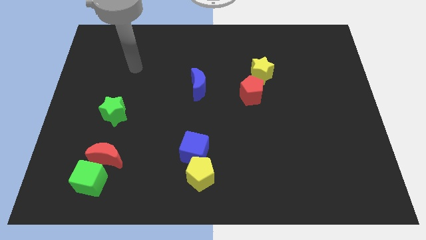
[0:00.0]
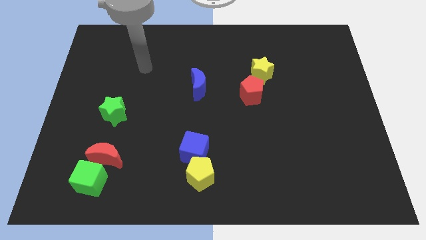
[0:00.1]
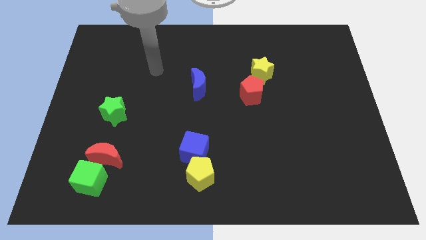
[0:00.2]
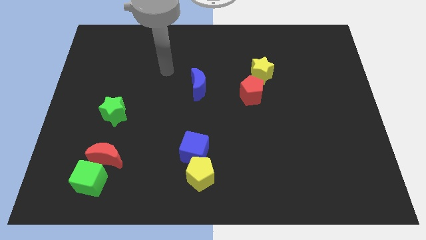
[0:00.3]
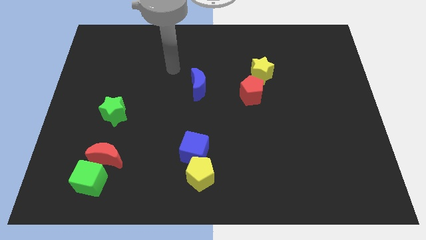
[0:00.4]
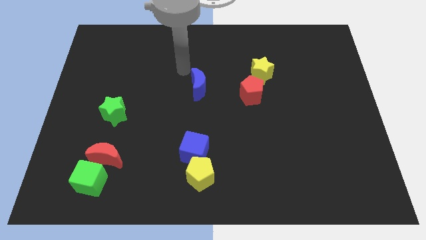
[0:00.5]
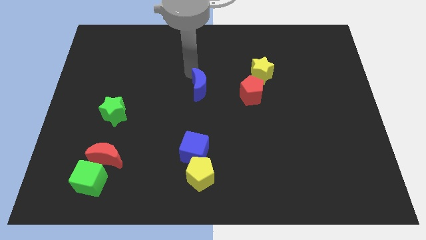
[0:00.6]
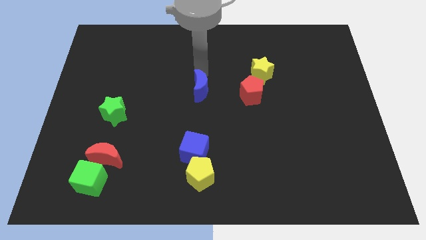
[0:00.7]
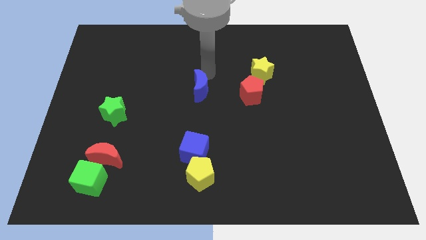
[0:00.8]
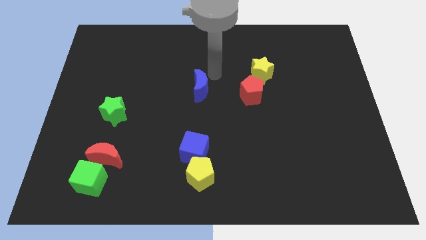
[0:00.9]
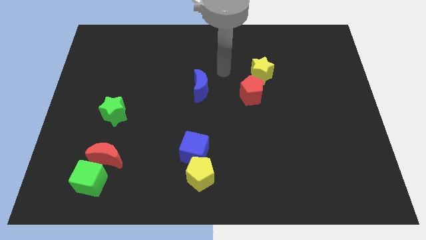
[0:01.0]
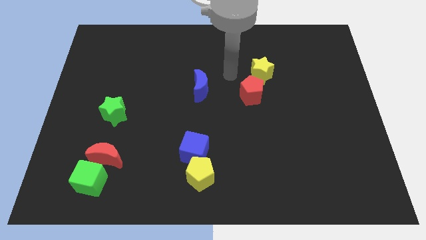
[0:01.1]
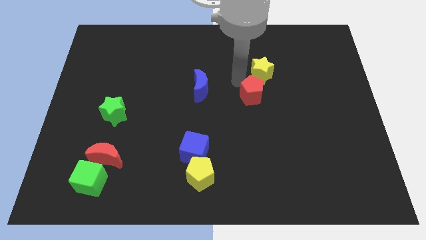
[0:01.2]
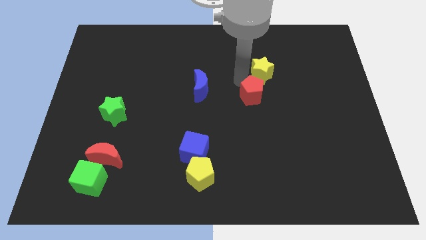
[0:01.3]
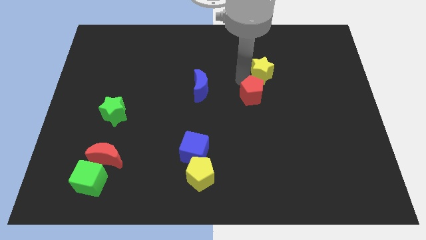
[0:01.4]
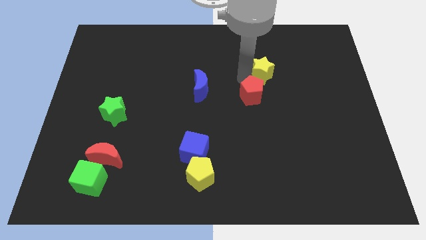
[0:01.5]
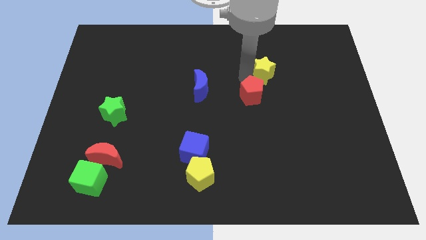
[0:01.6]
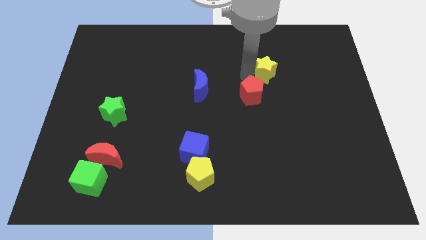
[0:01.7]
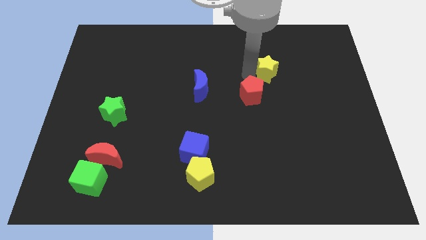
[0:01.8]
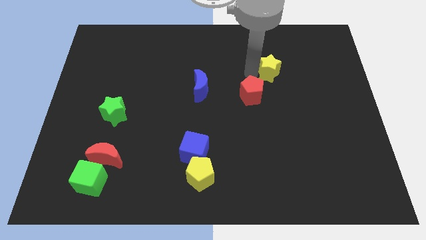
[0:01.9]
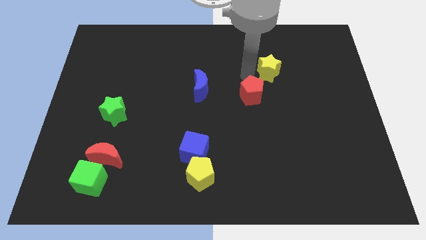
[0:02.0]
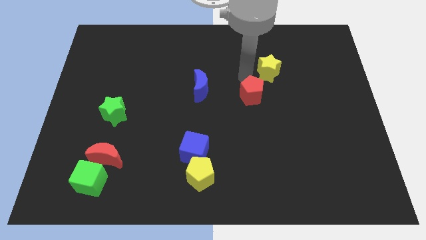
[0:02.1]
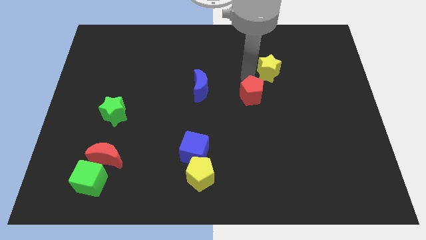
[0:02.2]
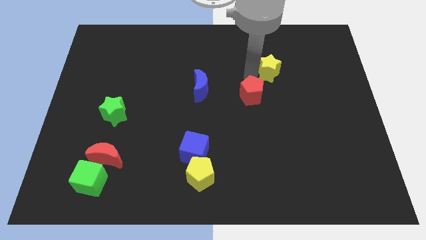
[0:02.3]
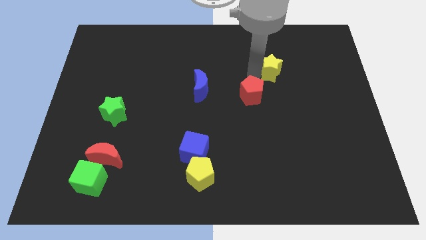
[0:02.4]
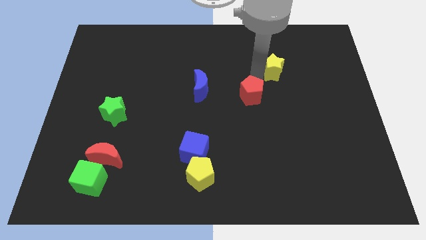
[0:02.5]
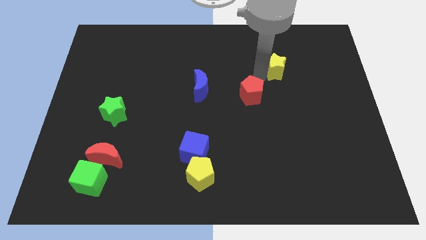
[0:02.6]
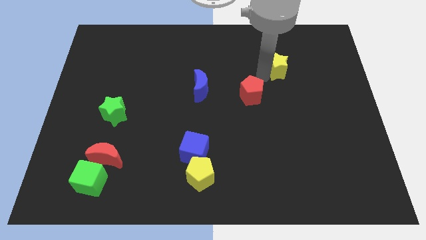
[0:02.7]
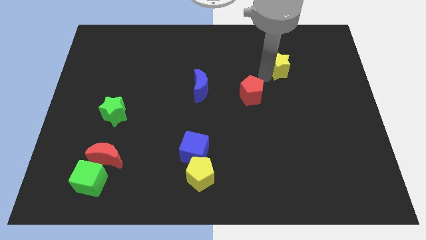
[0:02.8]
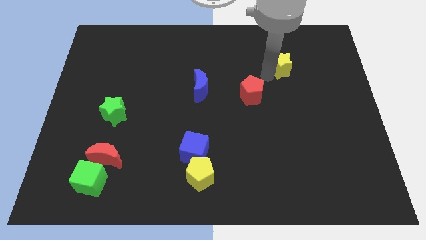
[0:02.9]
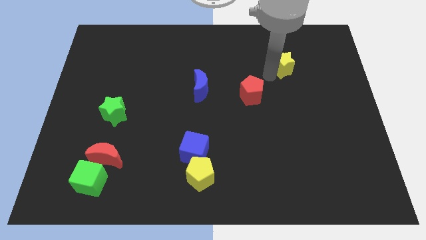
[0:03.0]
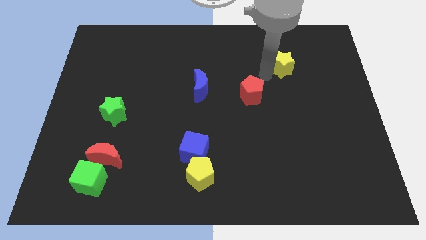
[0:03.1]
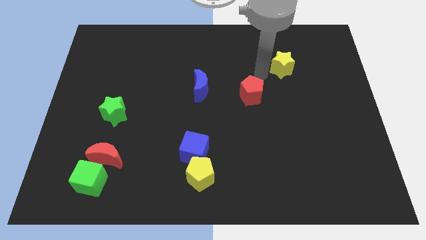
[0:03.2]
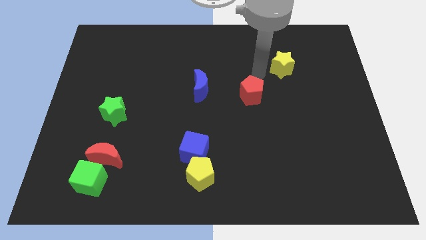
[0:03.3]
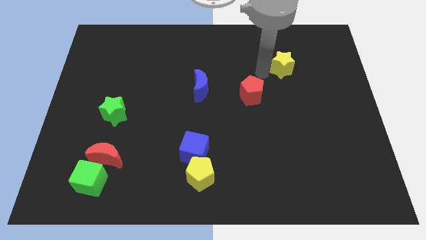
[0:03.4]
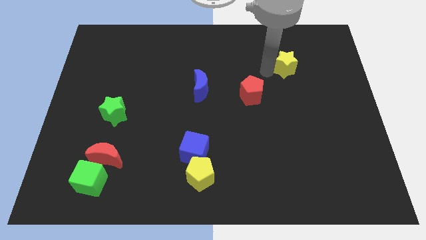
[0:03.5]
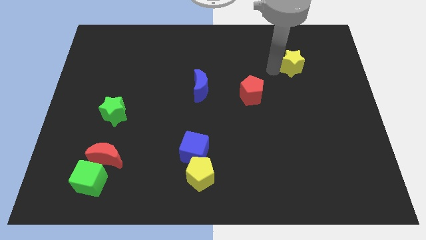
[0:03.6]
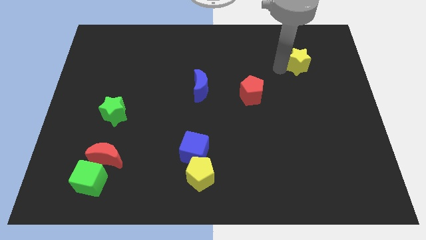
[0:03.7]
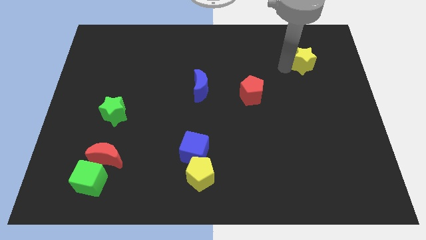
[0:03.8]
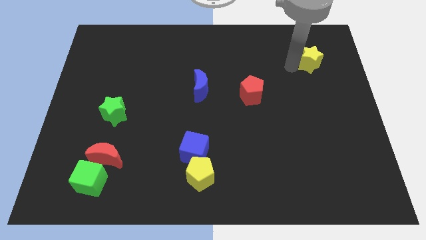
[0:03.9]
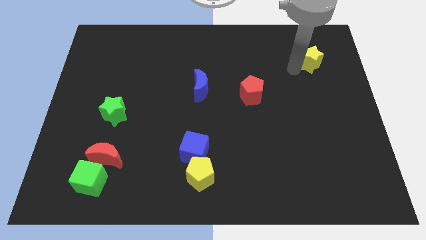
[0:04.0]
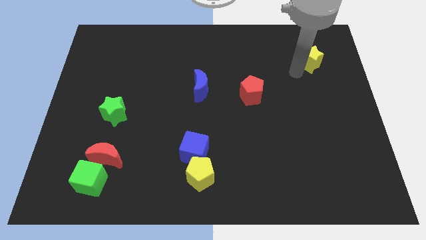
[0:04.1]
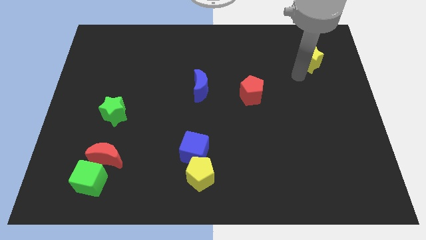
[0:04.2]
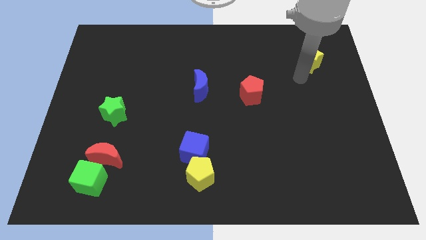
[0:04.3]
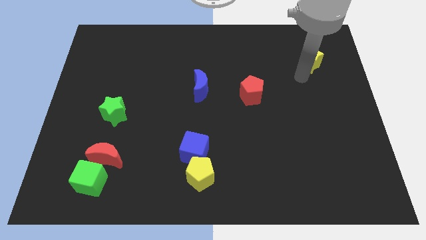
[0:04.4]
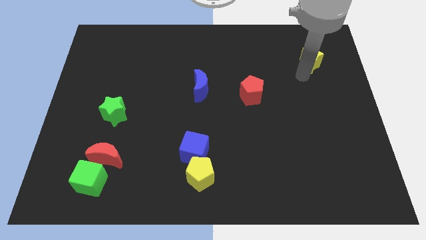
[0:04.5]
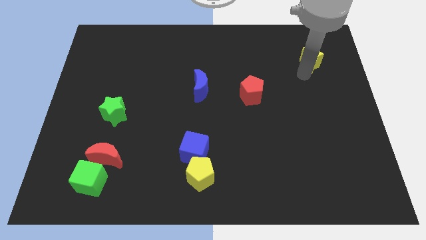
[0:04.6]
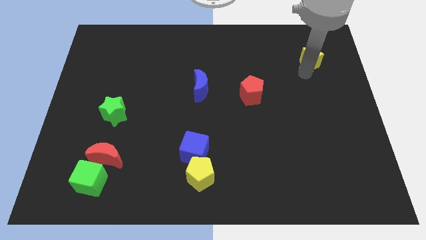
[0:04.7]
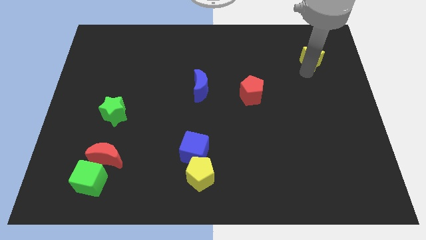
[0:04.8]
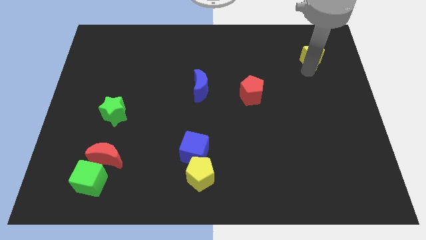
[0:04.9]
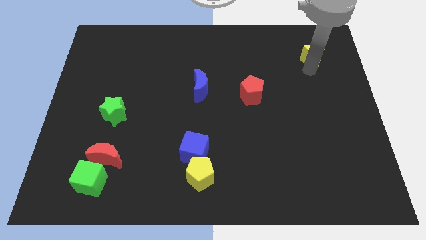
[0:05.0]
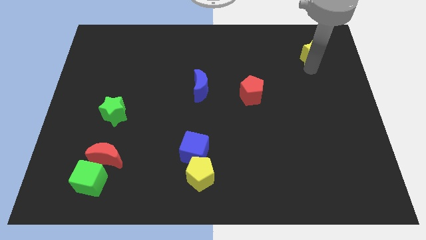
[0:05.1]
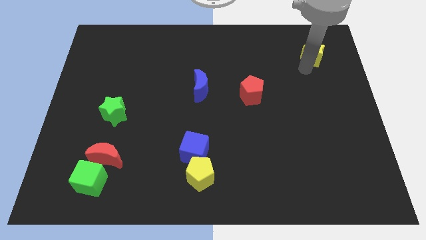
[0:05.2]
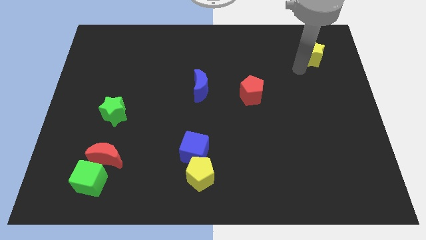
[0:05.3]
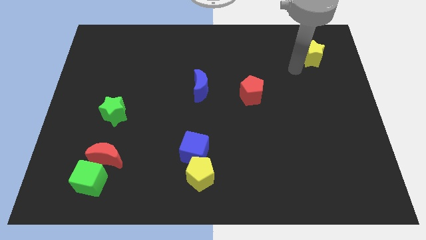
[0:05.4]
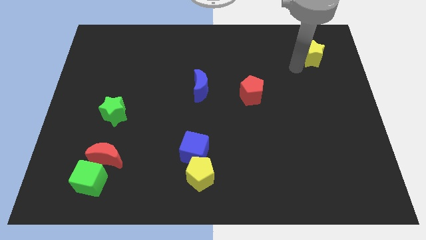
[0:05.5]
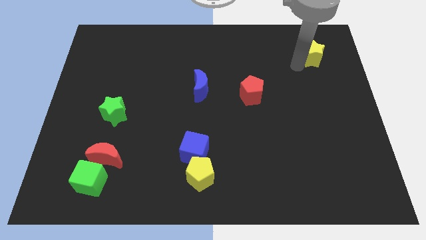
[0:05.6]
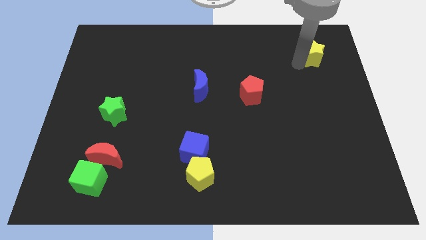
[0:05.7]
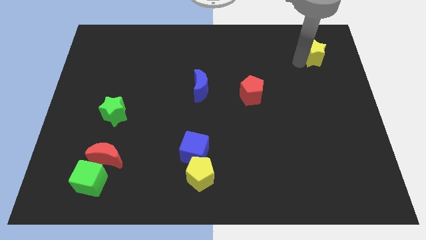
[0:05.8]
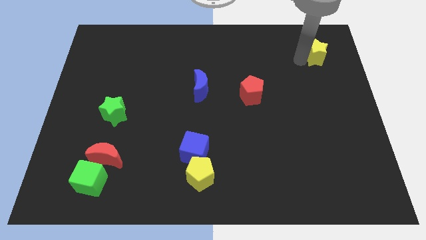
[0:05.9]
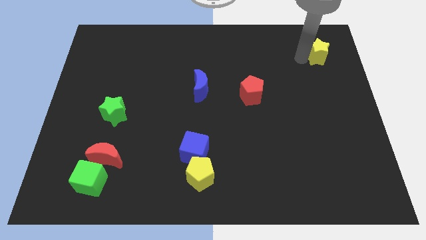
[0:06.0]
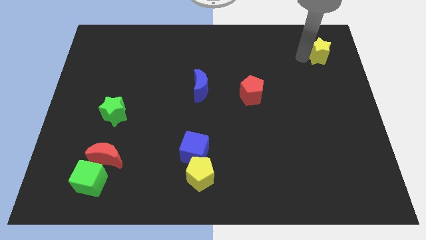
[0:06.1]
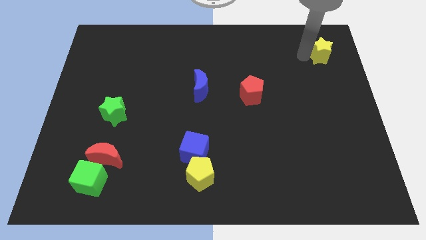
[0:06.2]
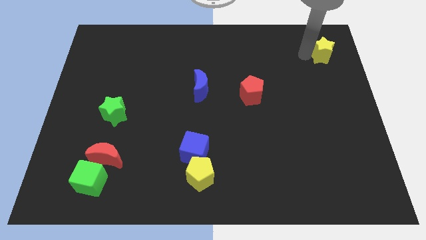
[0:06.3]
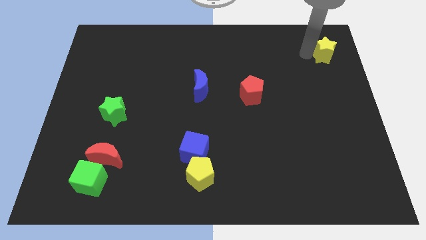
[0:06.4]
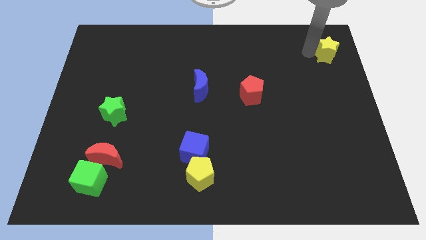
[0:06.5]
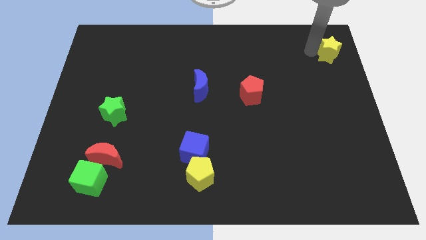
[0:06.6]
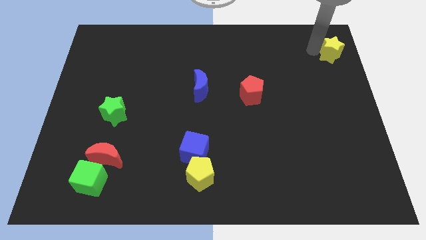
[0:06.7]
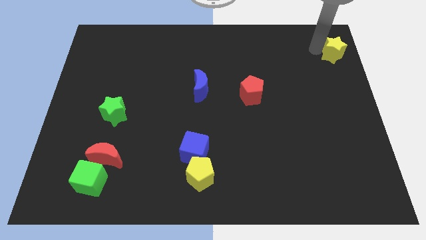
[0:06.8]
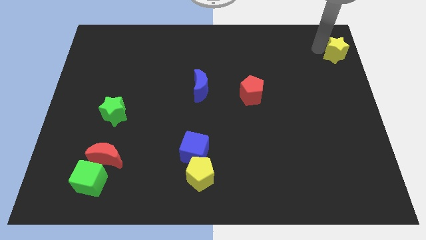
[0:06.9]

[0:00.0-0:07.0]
put the yellow star to the top right of the board
